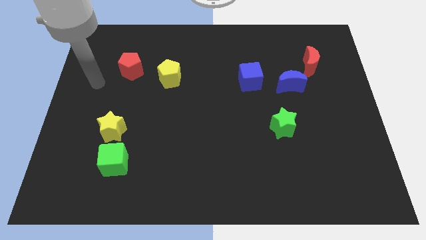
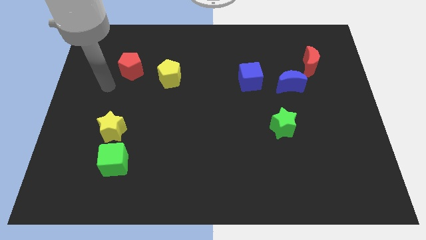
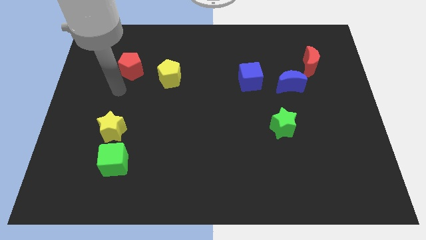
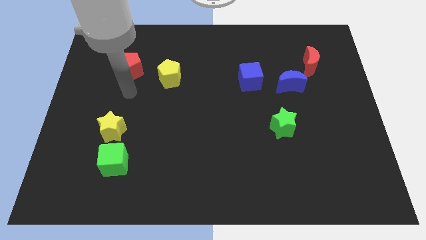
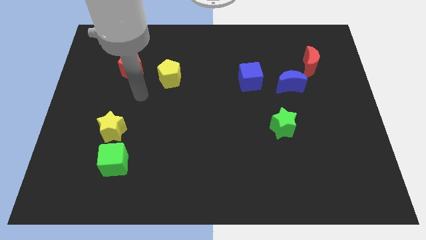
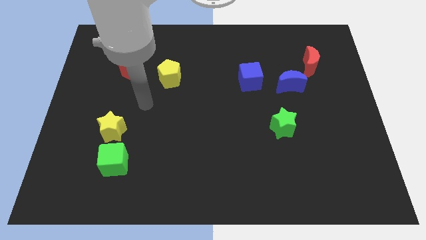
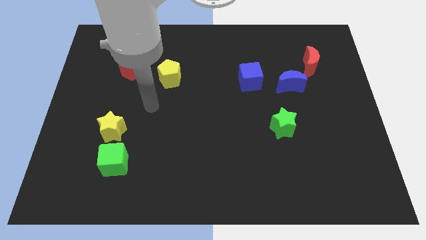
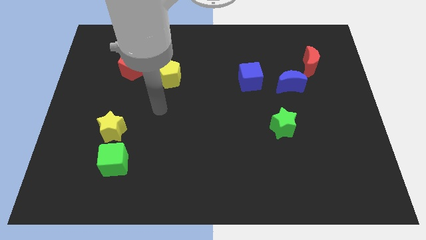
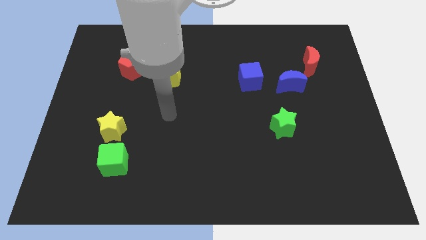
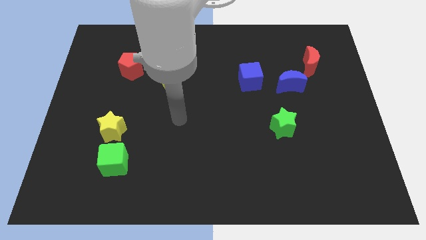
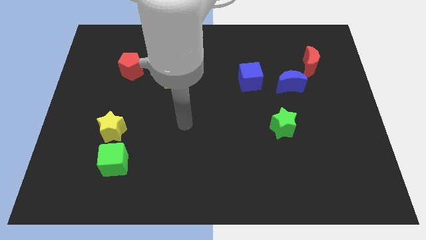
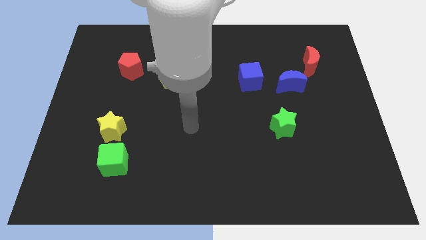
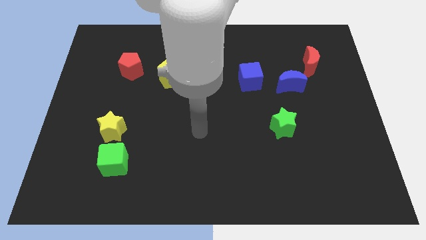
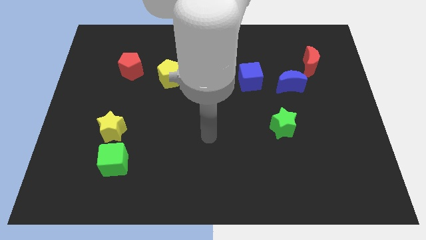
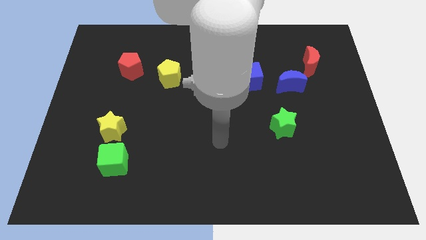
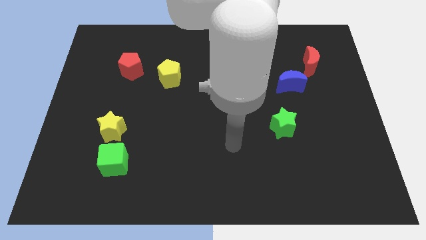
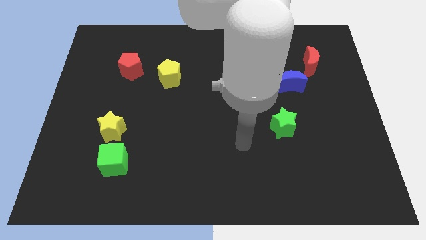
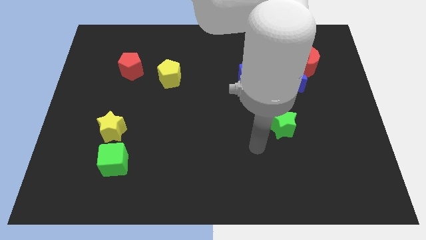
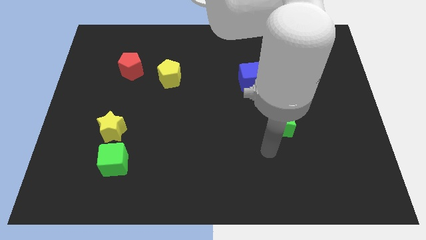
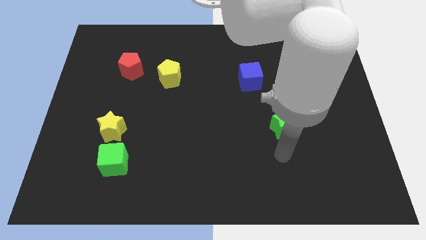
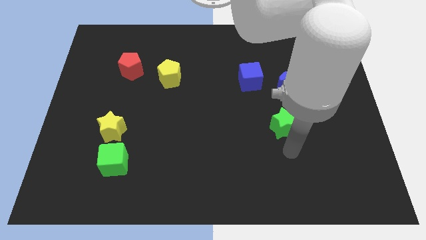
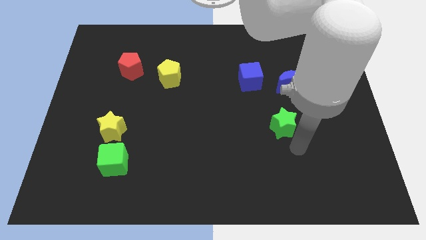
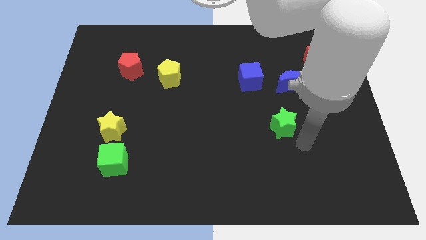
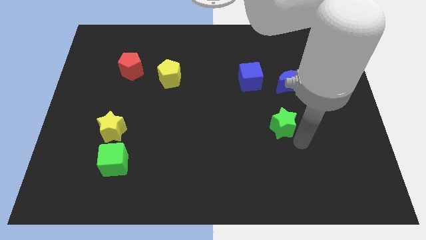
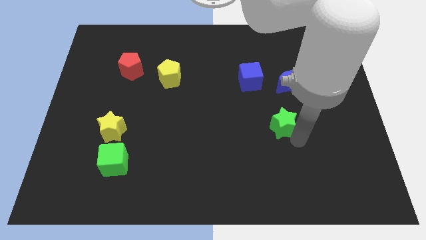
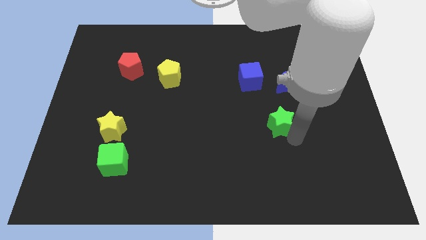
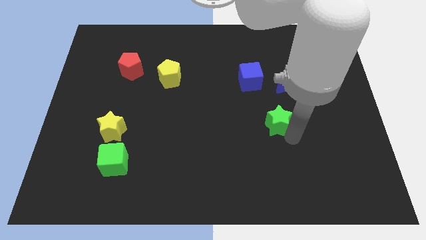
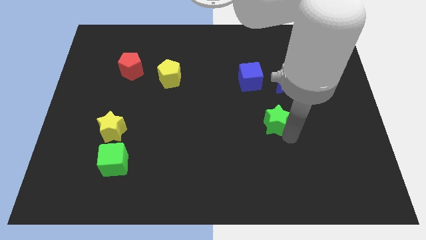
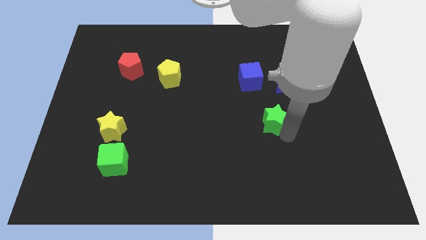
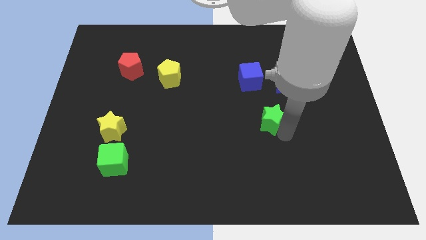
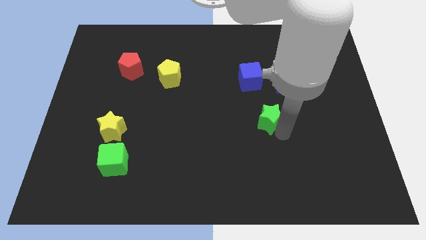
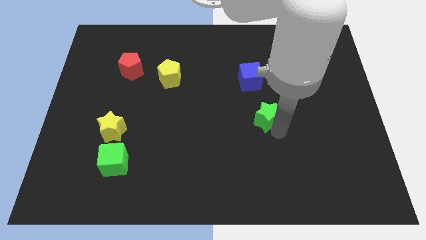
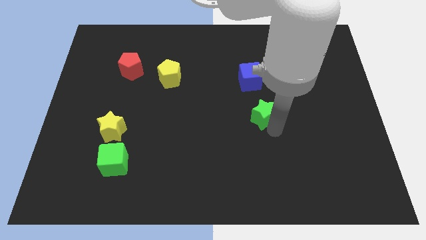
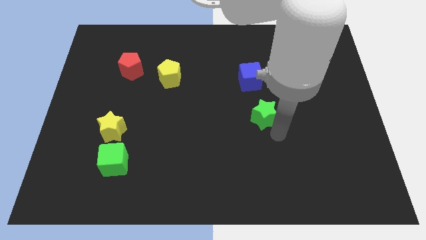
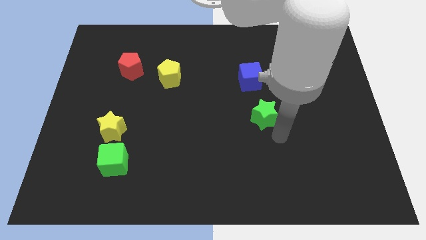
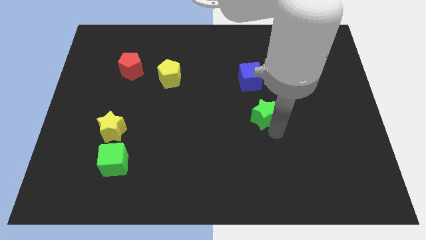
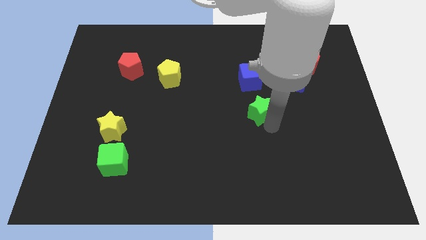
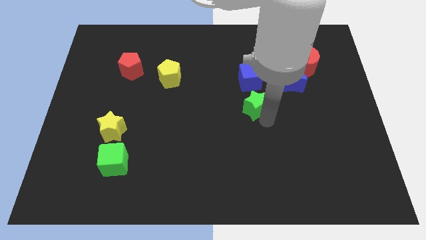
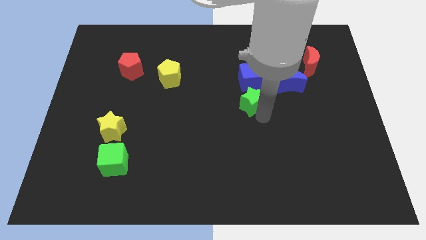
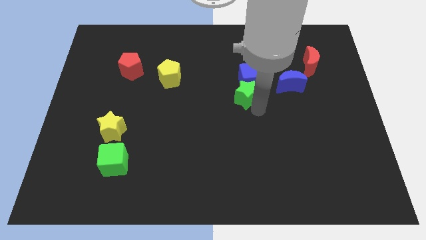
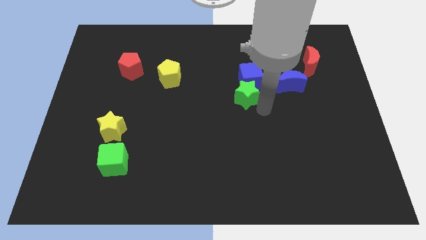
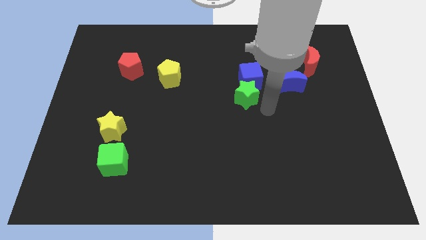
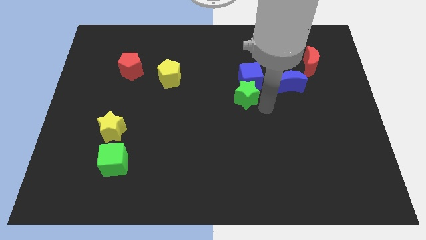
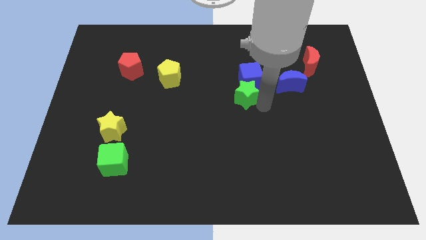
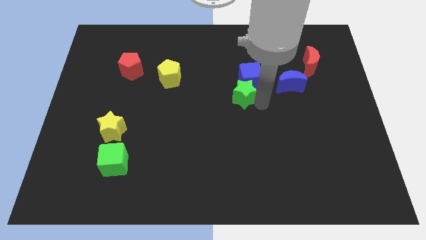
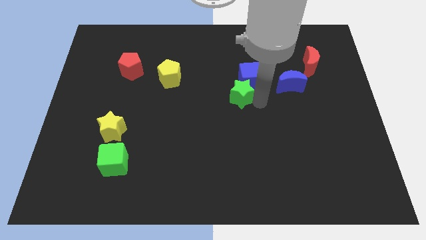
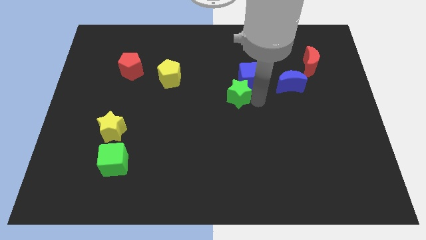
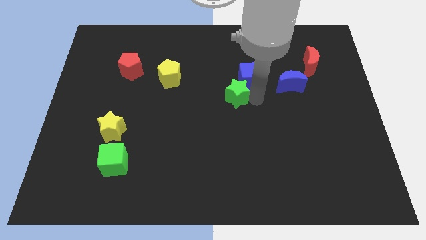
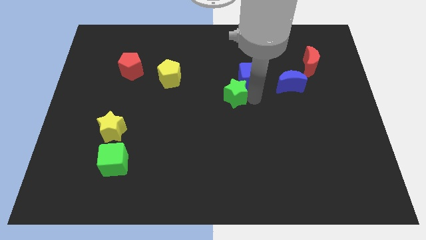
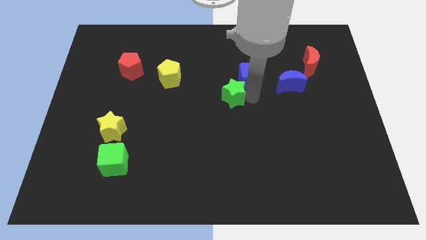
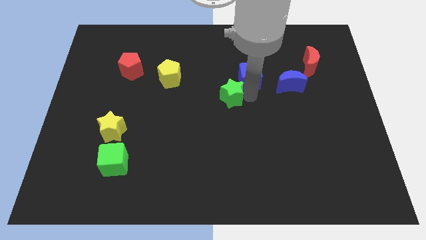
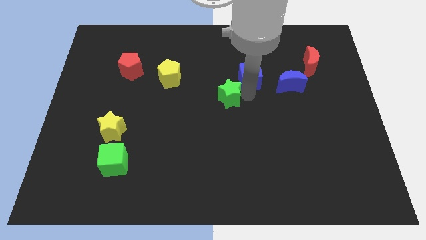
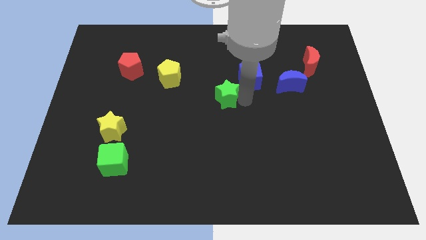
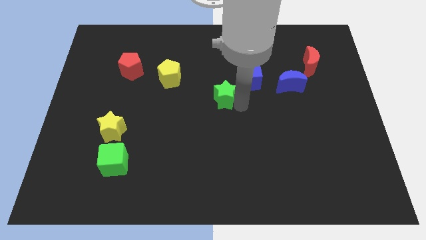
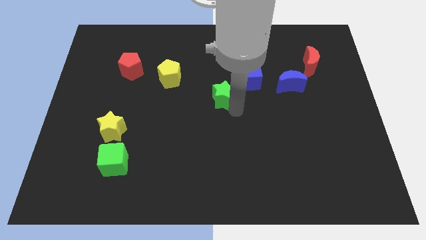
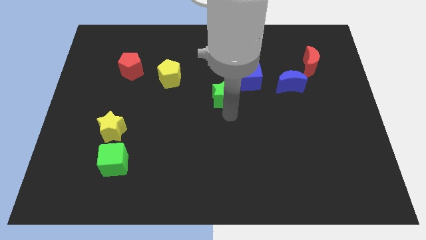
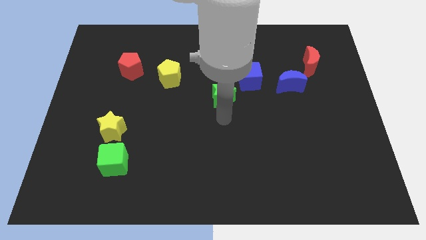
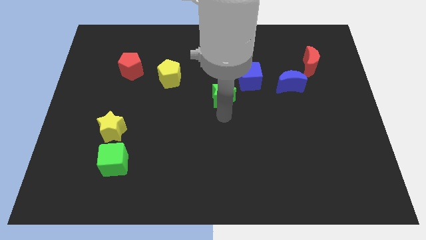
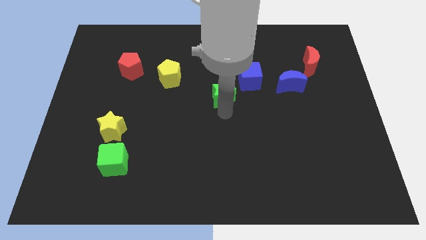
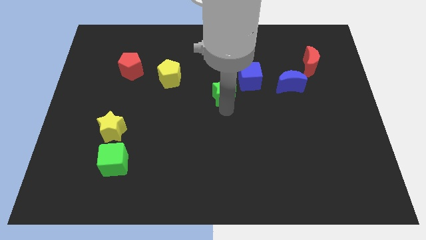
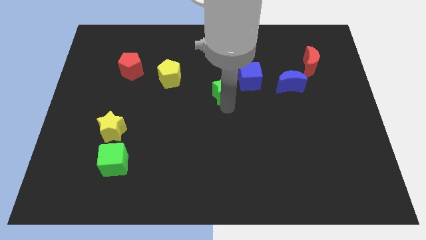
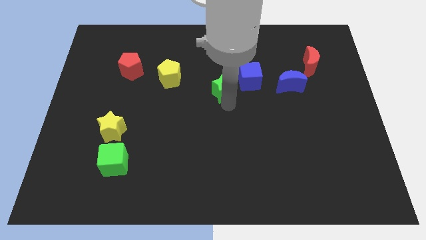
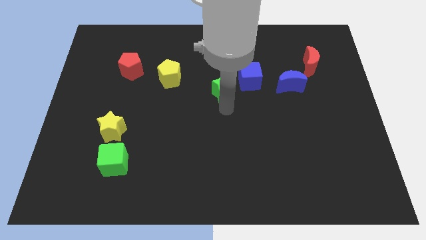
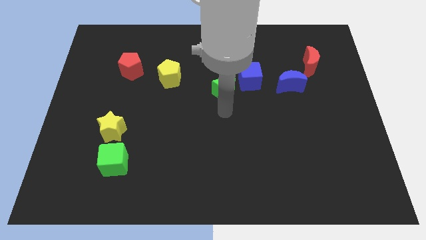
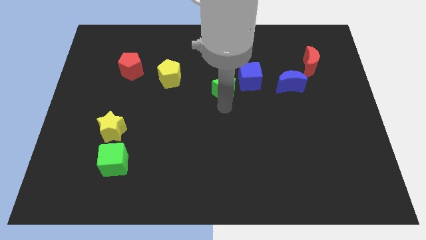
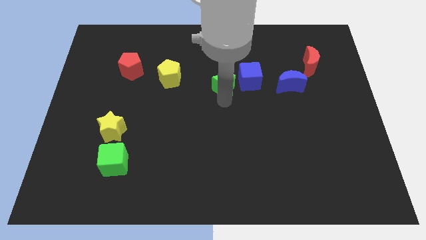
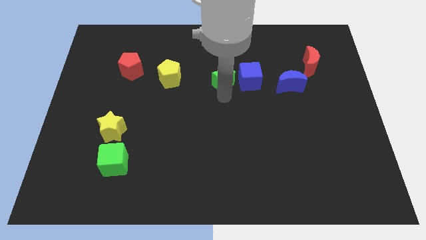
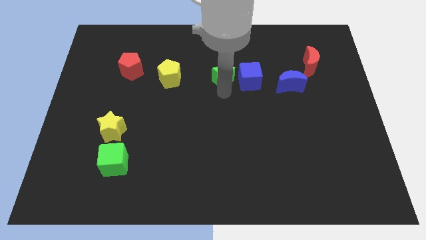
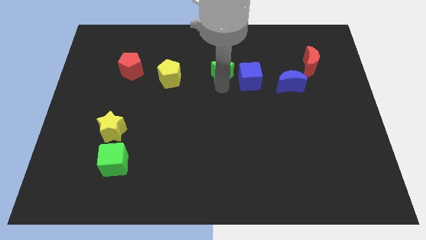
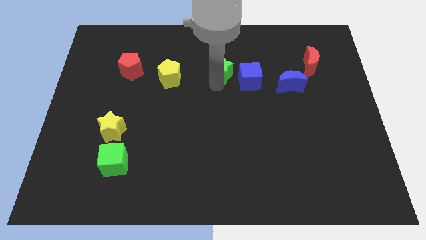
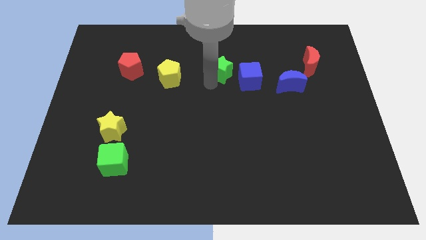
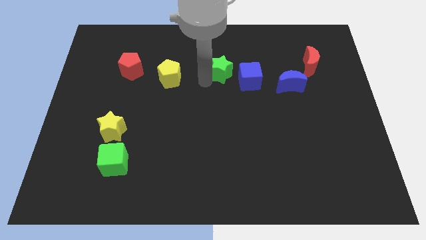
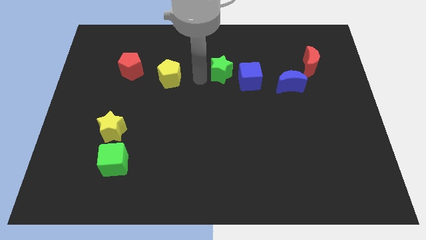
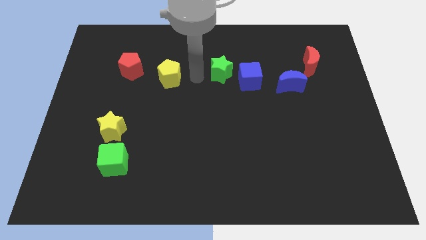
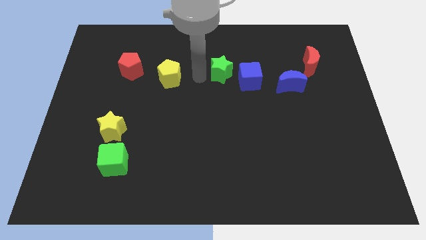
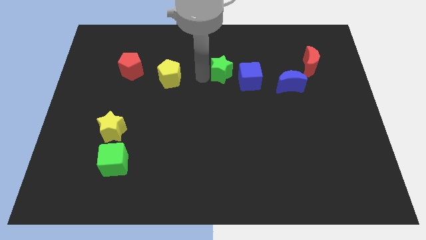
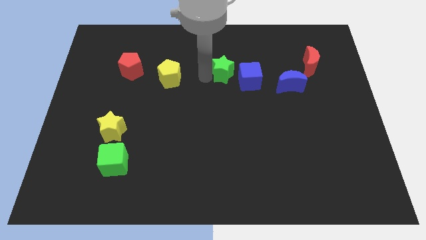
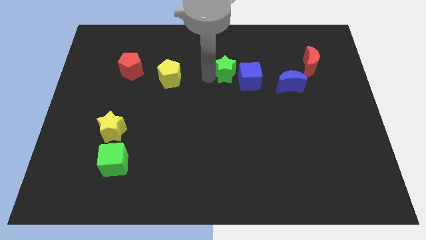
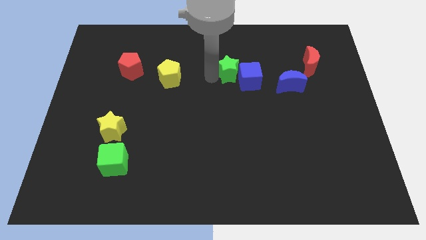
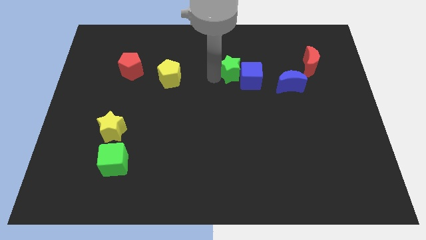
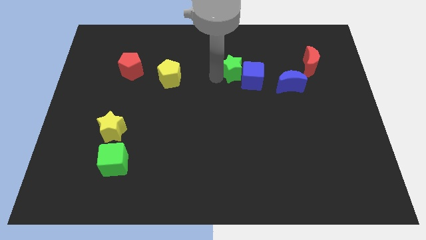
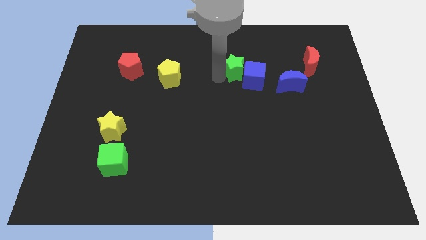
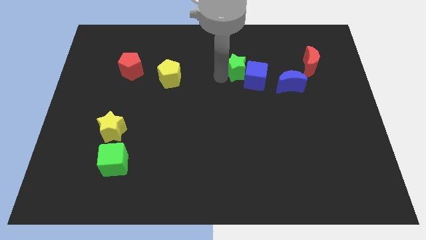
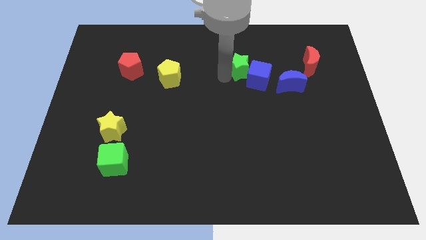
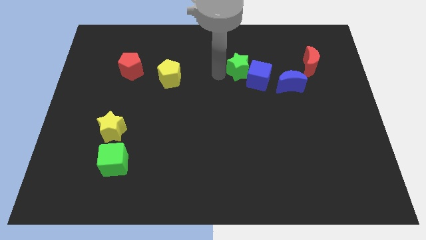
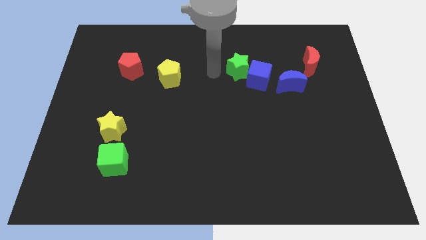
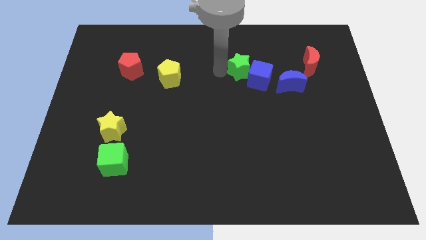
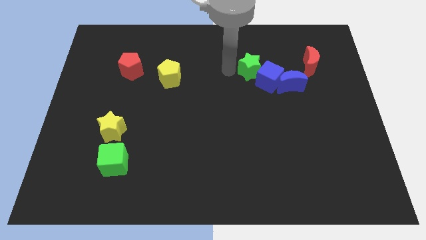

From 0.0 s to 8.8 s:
move the green star to the left side of the red moon
